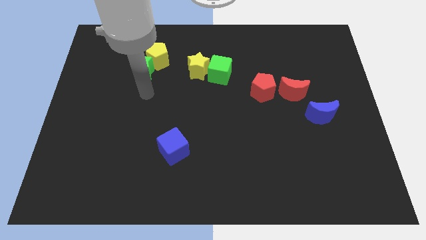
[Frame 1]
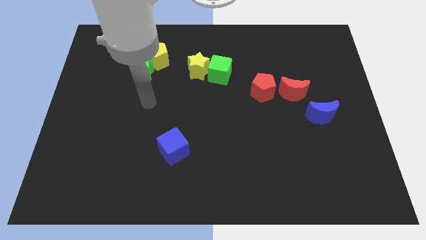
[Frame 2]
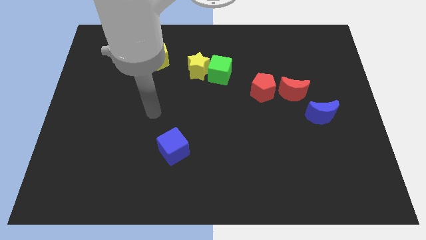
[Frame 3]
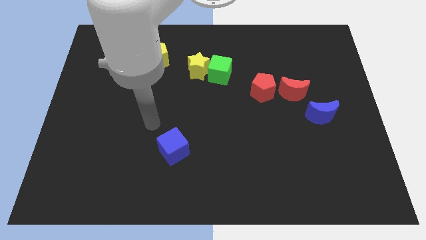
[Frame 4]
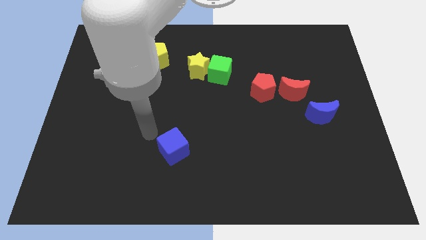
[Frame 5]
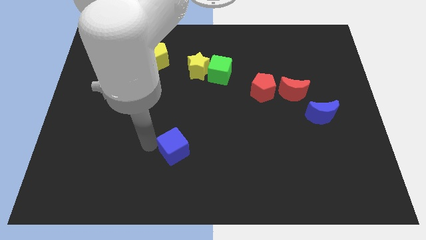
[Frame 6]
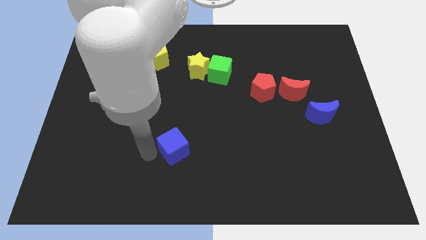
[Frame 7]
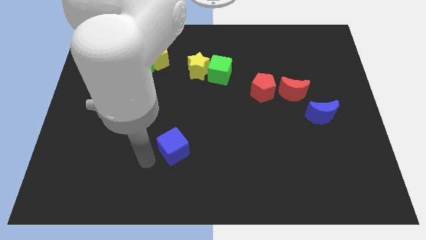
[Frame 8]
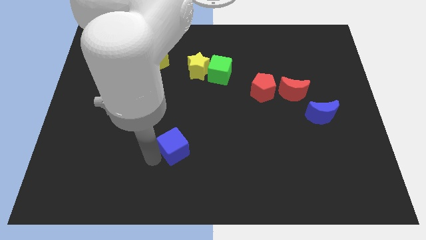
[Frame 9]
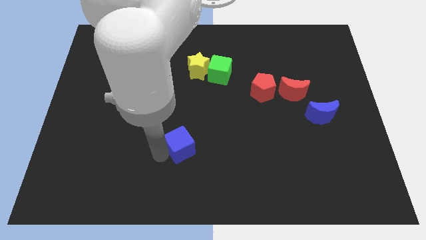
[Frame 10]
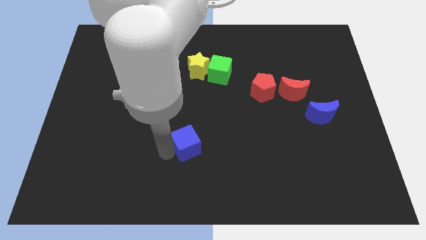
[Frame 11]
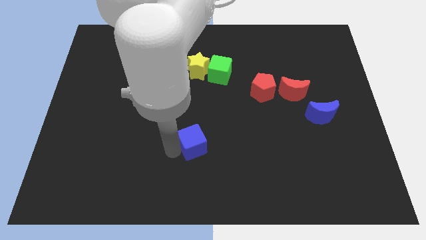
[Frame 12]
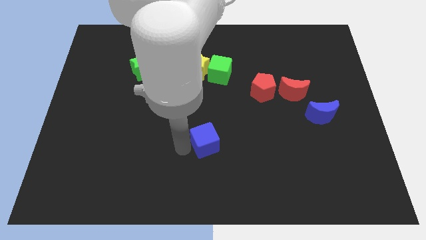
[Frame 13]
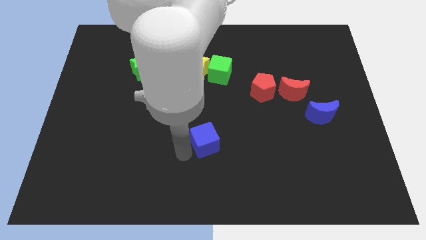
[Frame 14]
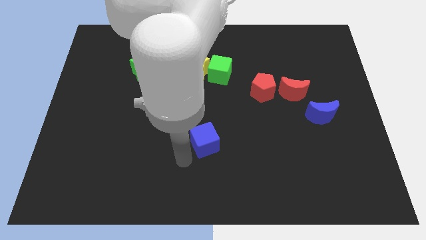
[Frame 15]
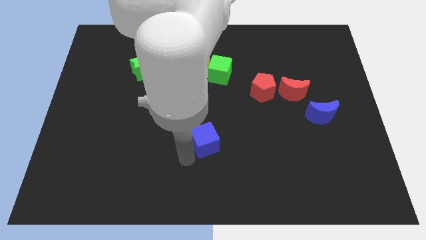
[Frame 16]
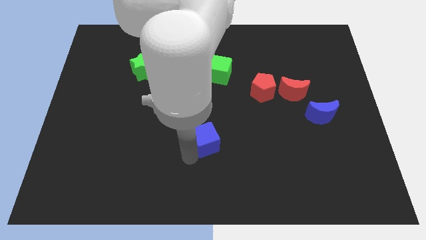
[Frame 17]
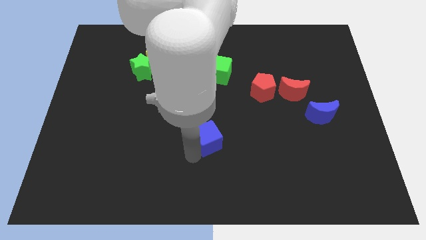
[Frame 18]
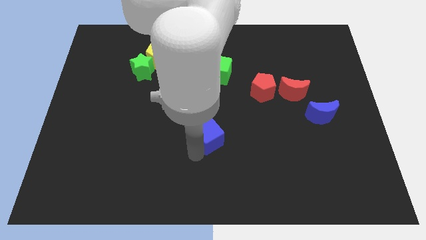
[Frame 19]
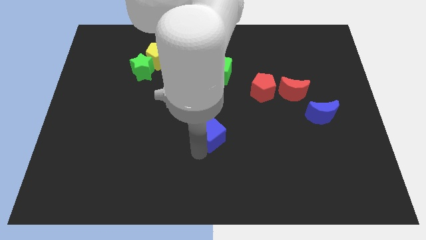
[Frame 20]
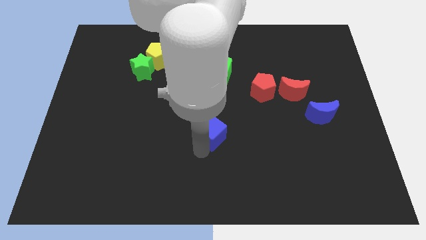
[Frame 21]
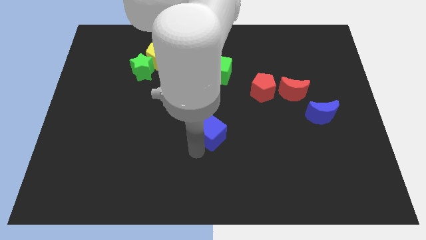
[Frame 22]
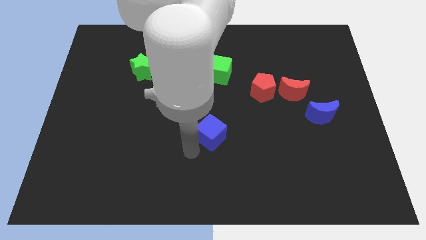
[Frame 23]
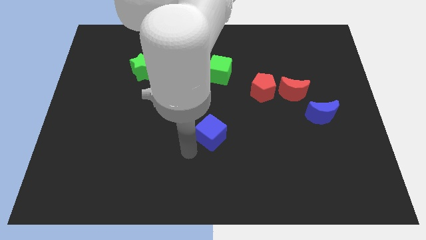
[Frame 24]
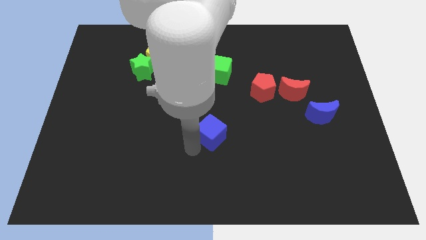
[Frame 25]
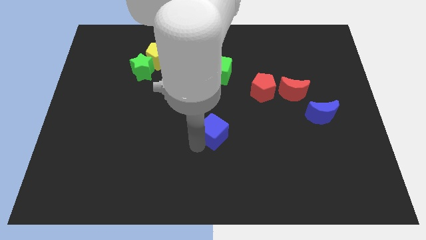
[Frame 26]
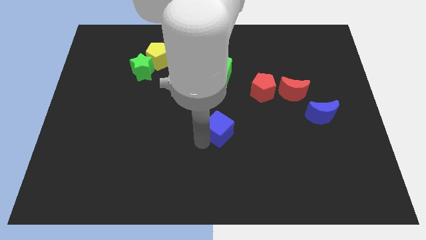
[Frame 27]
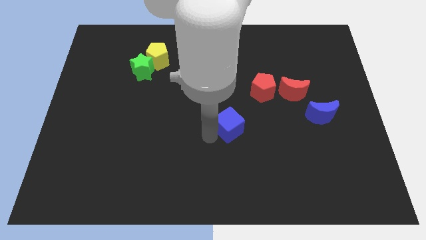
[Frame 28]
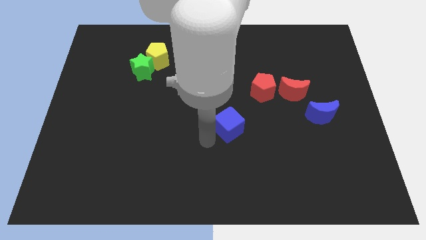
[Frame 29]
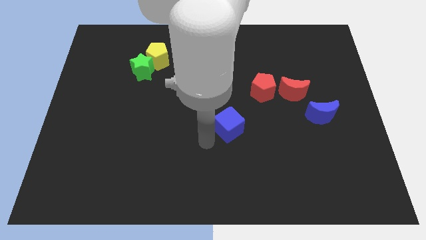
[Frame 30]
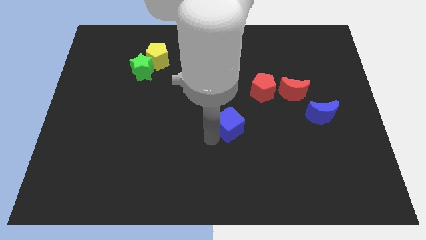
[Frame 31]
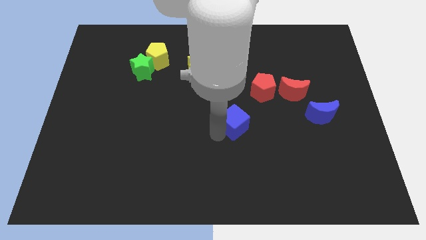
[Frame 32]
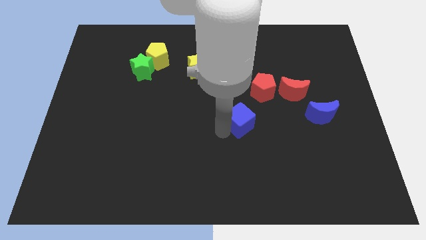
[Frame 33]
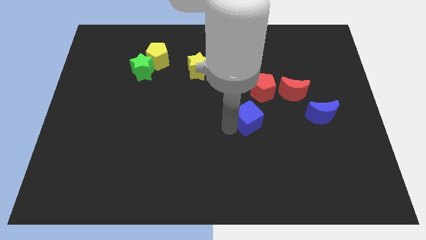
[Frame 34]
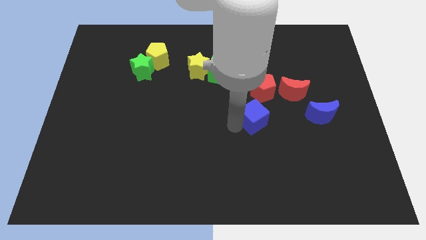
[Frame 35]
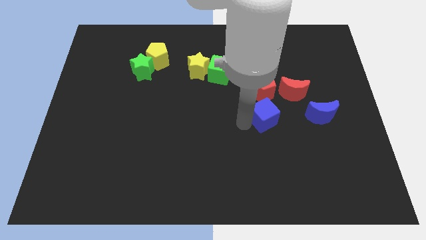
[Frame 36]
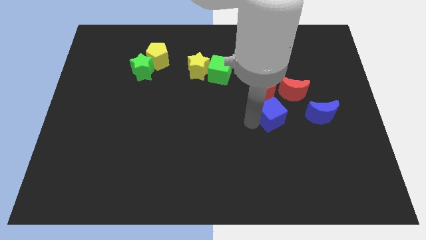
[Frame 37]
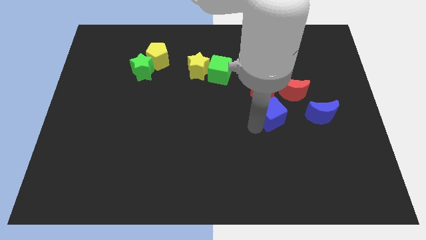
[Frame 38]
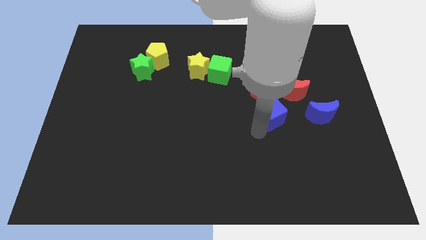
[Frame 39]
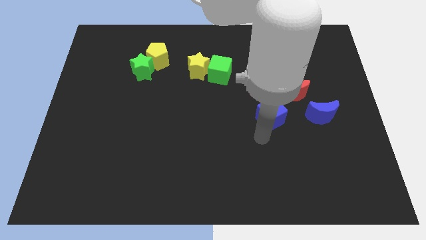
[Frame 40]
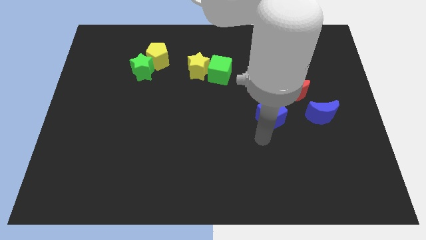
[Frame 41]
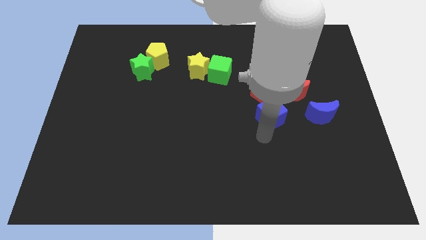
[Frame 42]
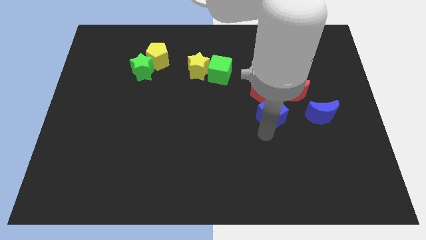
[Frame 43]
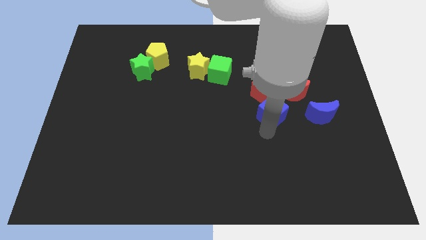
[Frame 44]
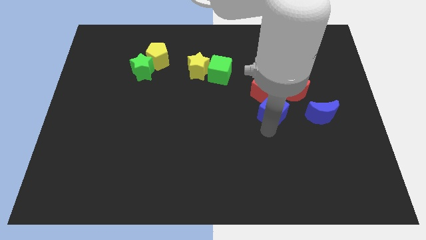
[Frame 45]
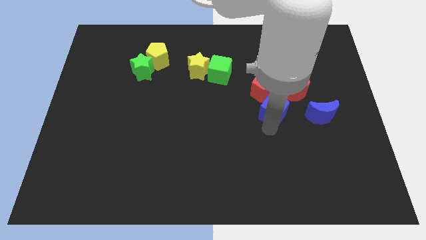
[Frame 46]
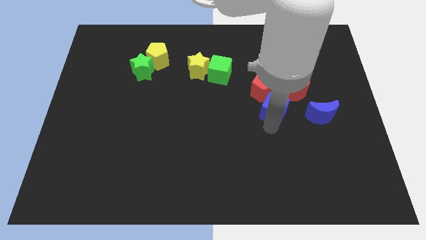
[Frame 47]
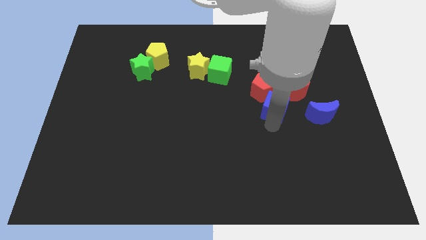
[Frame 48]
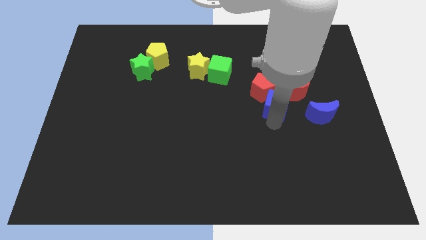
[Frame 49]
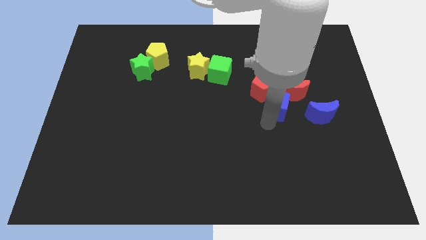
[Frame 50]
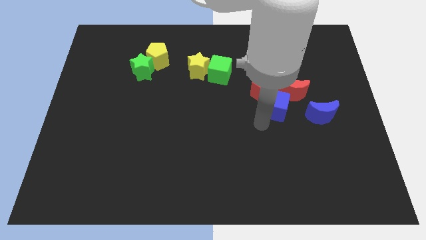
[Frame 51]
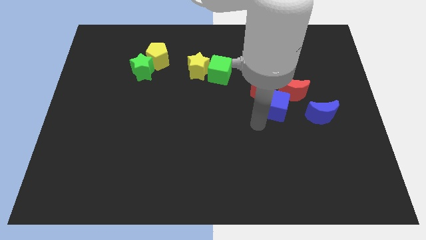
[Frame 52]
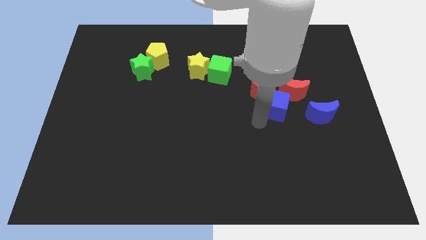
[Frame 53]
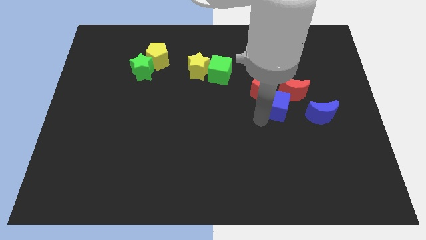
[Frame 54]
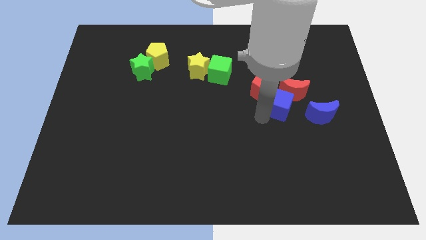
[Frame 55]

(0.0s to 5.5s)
slide the blue cube towards the red moon
